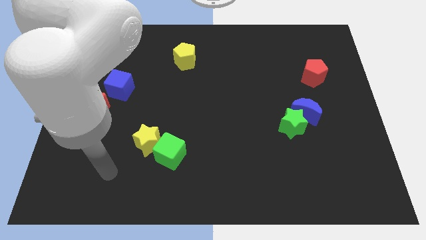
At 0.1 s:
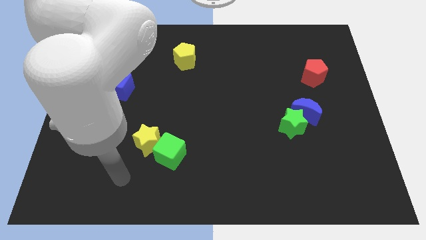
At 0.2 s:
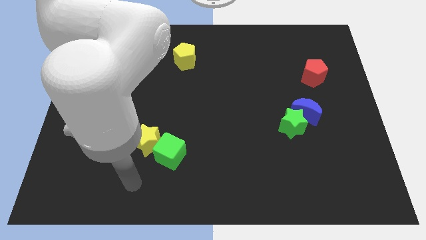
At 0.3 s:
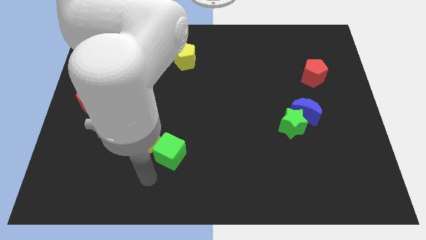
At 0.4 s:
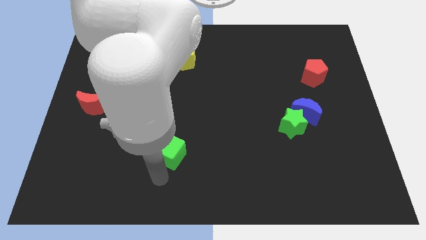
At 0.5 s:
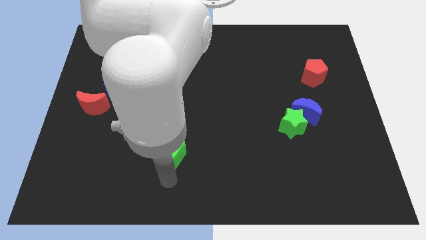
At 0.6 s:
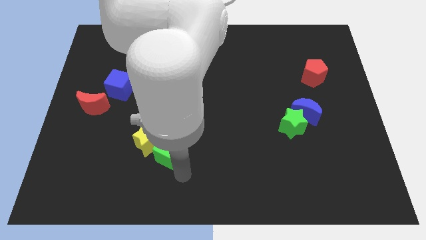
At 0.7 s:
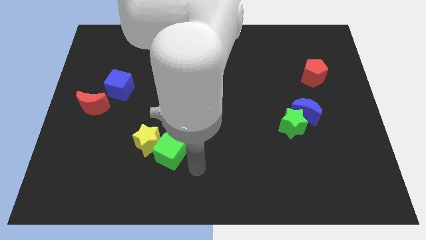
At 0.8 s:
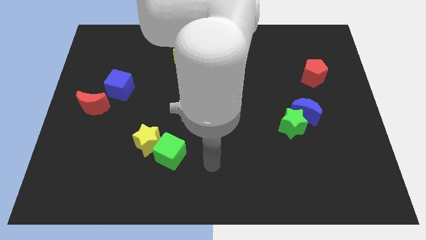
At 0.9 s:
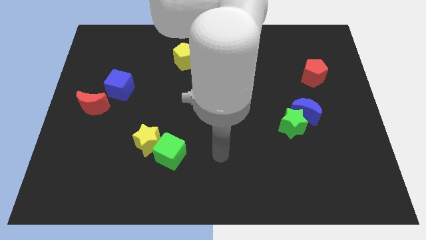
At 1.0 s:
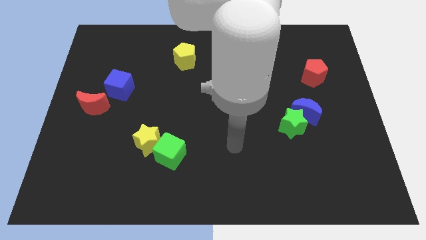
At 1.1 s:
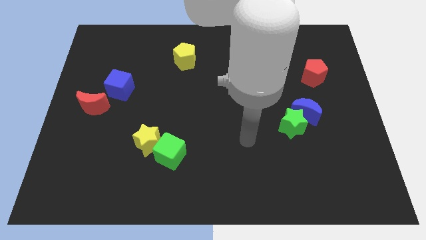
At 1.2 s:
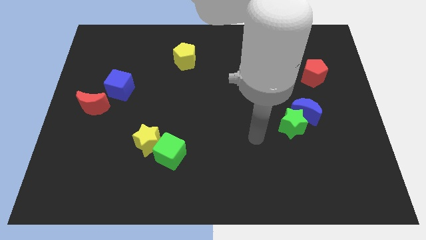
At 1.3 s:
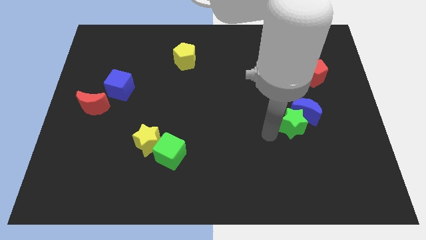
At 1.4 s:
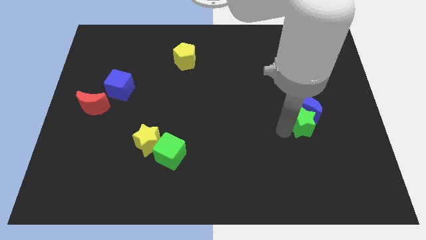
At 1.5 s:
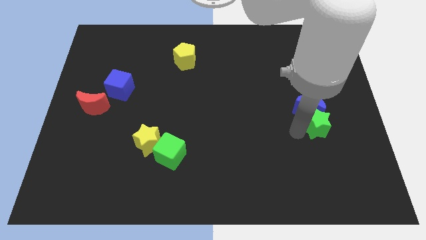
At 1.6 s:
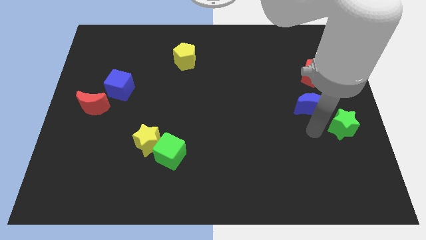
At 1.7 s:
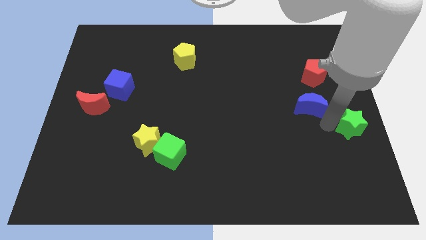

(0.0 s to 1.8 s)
pull the blue moon apart from the green star

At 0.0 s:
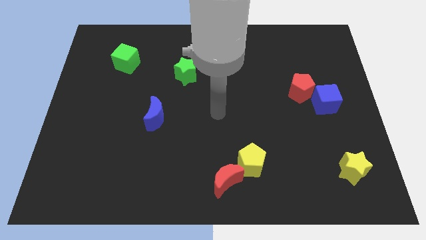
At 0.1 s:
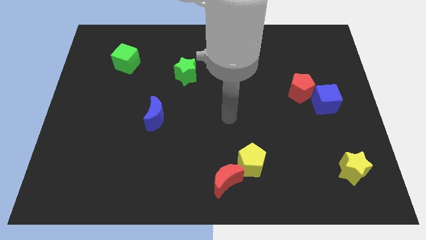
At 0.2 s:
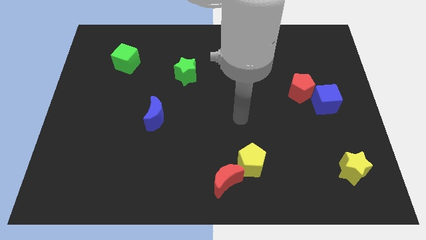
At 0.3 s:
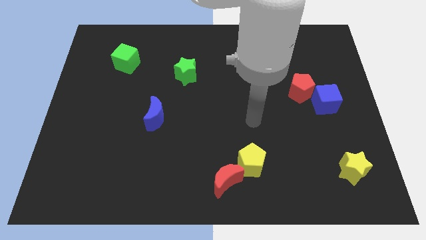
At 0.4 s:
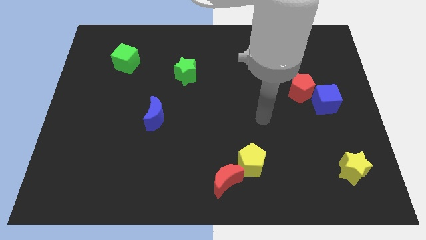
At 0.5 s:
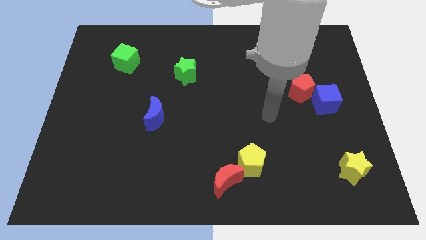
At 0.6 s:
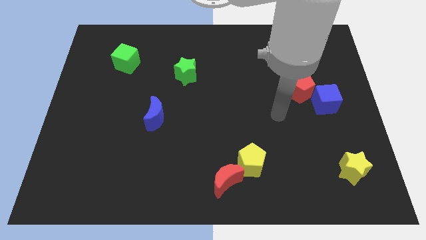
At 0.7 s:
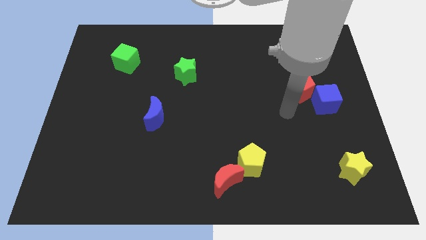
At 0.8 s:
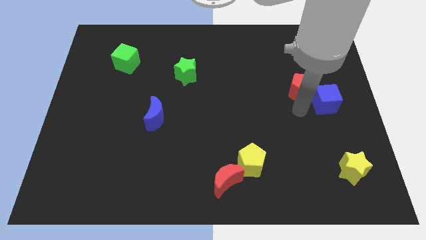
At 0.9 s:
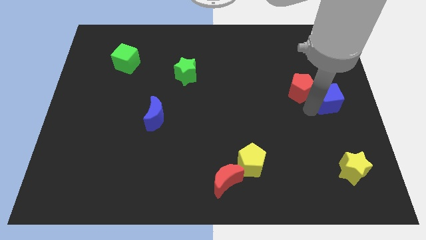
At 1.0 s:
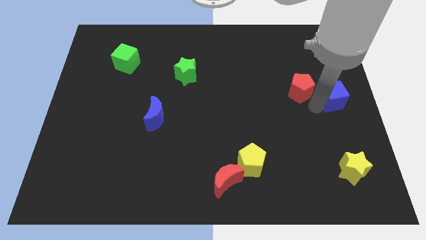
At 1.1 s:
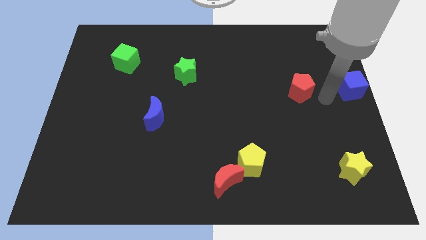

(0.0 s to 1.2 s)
pull the red pentagon apart from the blue cube

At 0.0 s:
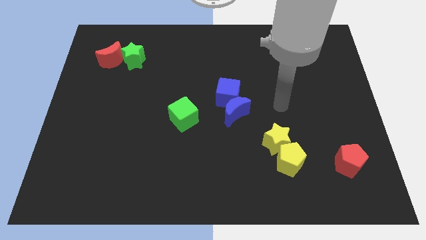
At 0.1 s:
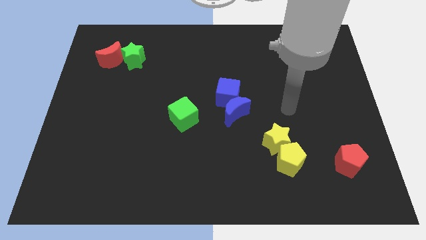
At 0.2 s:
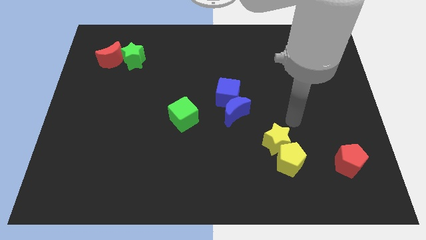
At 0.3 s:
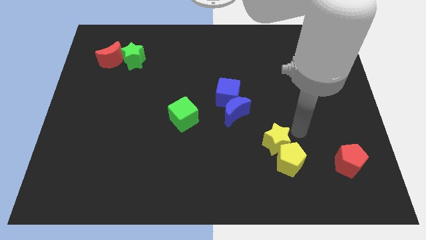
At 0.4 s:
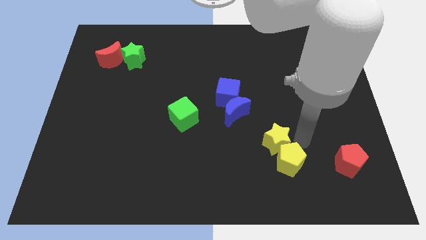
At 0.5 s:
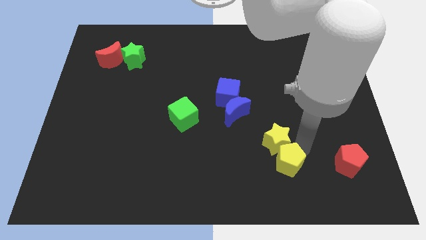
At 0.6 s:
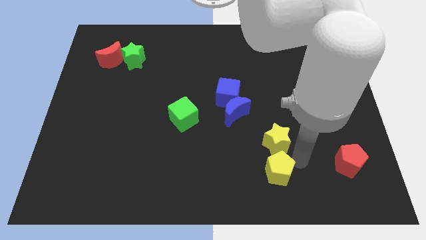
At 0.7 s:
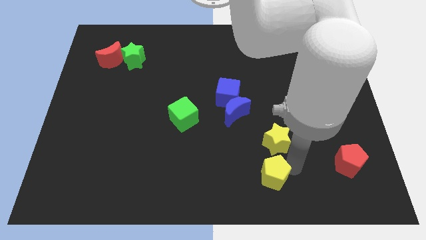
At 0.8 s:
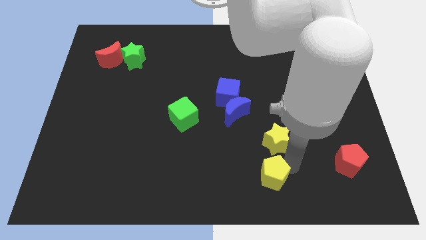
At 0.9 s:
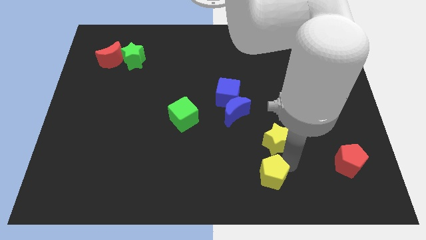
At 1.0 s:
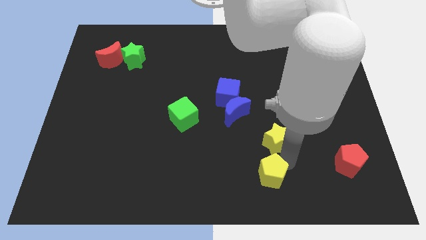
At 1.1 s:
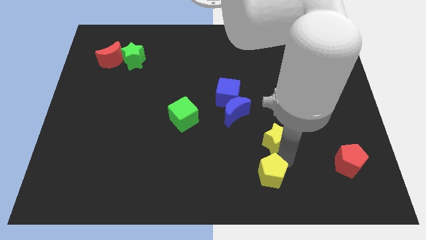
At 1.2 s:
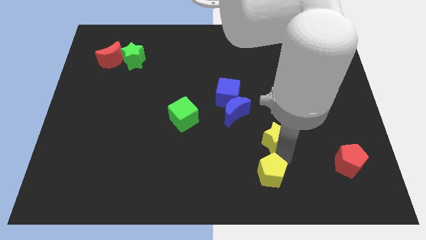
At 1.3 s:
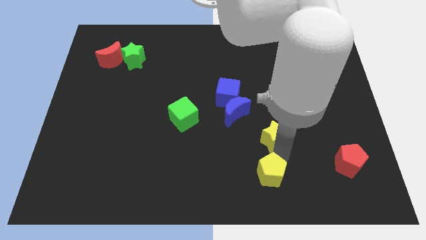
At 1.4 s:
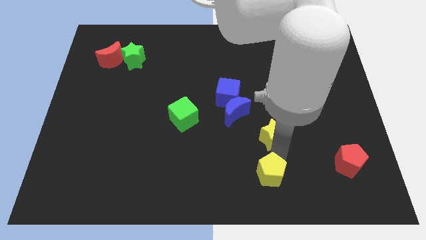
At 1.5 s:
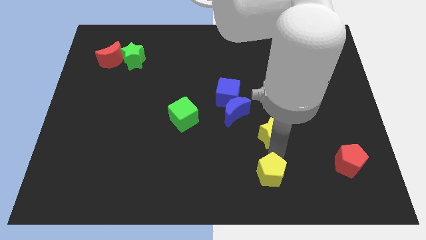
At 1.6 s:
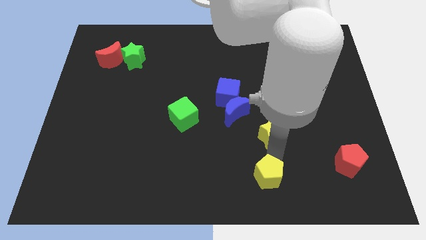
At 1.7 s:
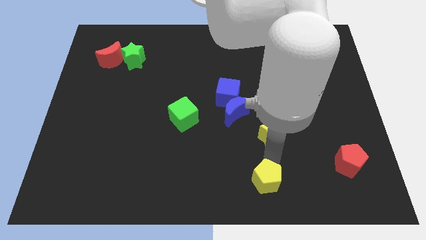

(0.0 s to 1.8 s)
pull the yellow star apart from the yellow pentagon

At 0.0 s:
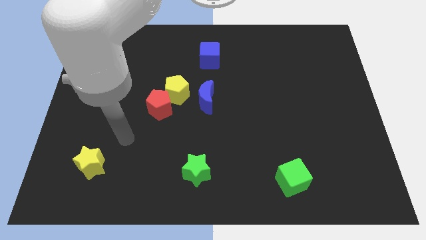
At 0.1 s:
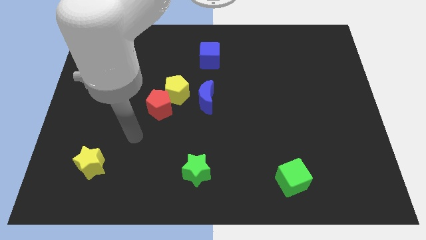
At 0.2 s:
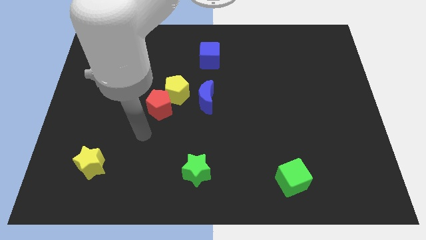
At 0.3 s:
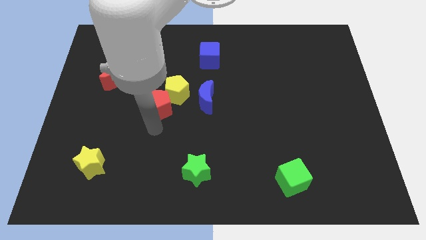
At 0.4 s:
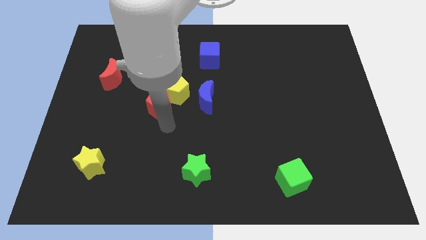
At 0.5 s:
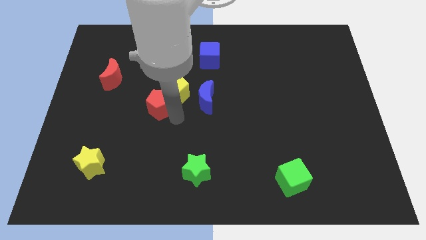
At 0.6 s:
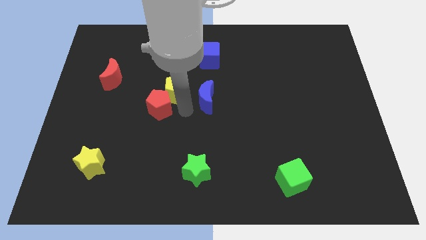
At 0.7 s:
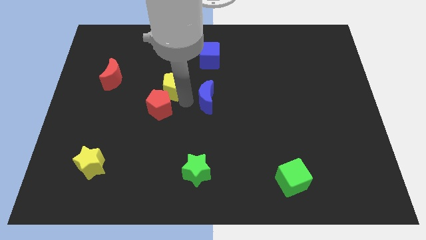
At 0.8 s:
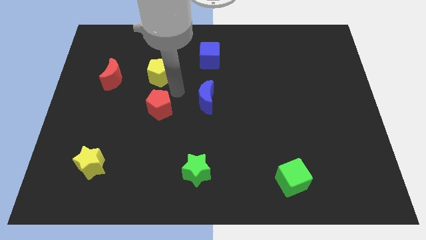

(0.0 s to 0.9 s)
separate the red pentagon from the yellow pentagon

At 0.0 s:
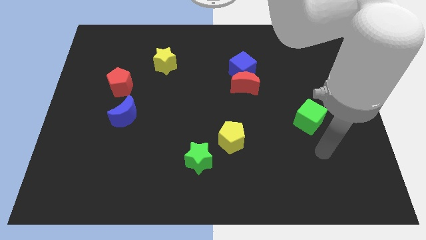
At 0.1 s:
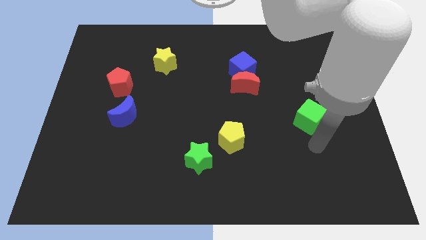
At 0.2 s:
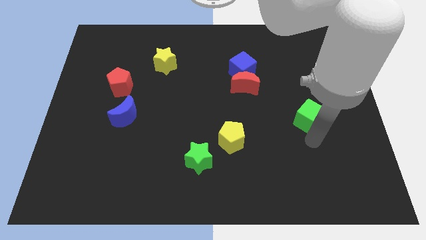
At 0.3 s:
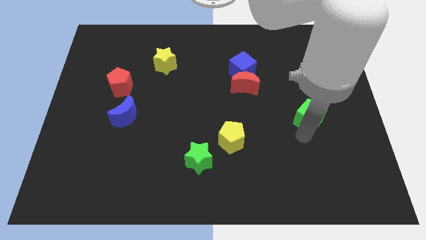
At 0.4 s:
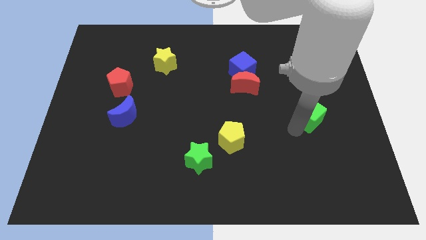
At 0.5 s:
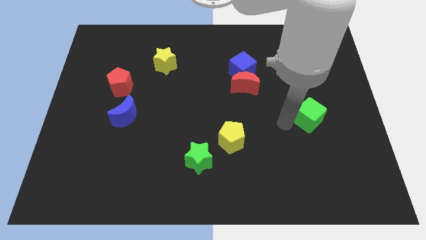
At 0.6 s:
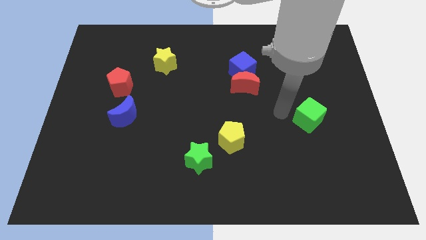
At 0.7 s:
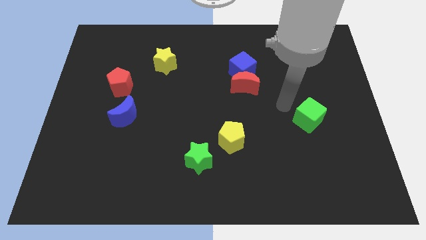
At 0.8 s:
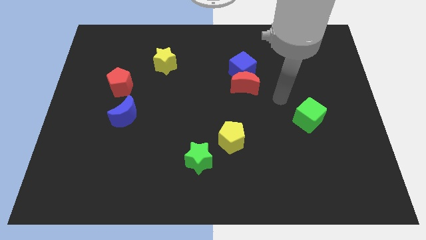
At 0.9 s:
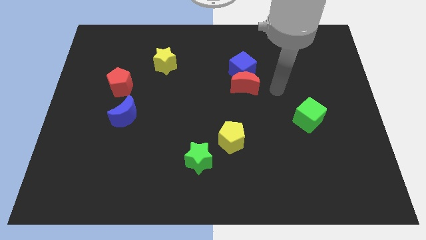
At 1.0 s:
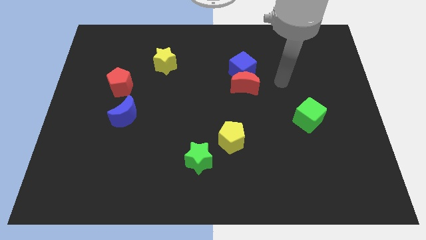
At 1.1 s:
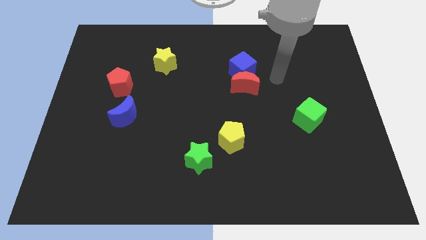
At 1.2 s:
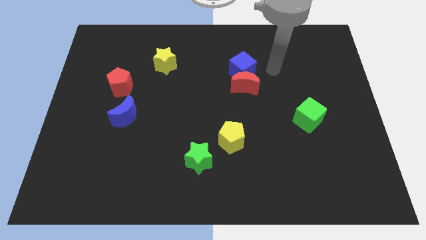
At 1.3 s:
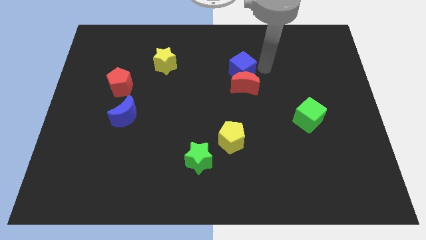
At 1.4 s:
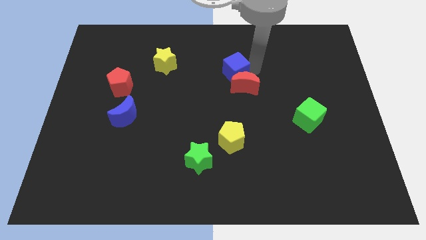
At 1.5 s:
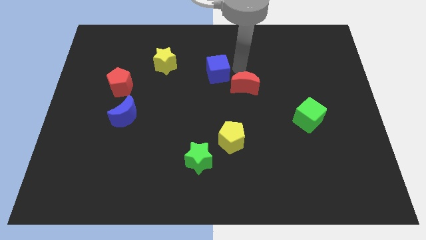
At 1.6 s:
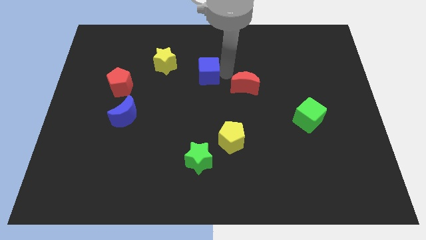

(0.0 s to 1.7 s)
move the red moon away from the blue cube

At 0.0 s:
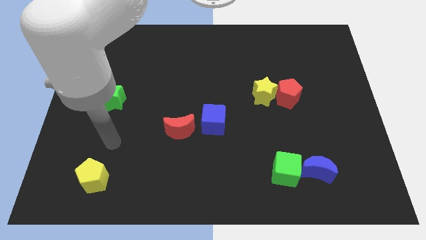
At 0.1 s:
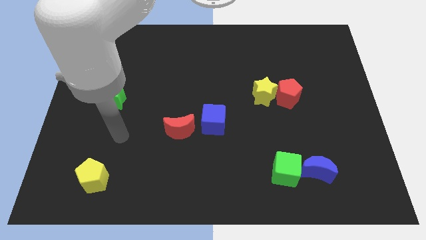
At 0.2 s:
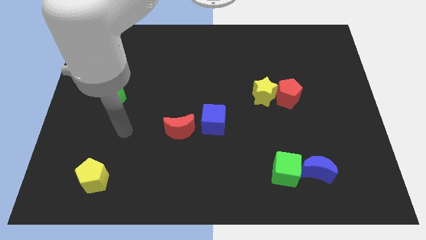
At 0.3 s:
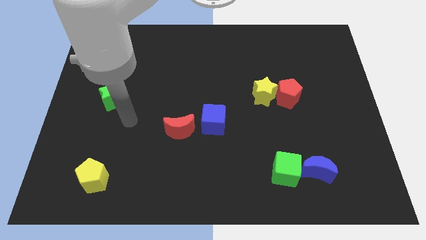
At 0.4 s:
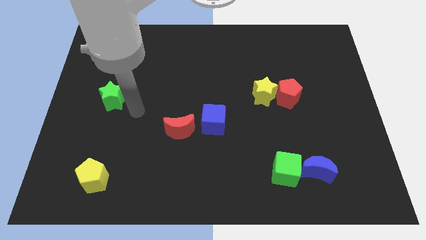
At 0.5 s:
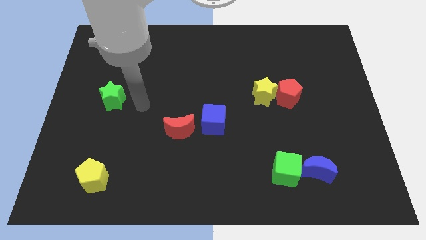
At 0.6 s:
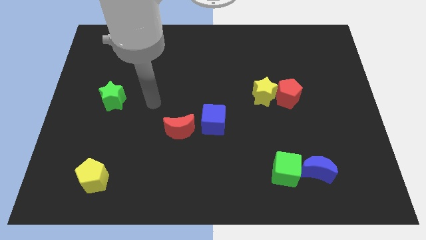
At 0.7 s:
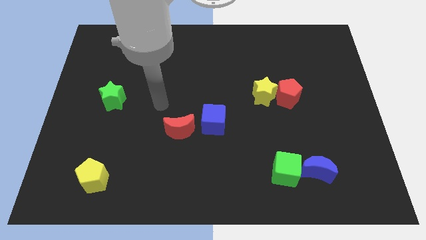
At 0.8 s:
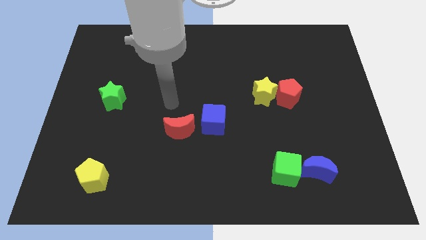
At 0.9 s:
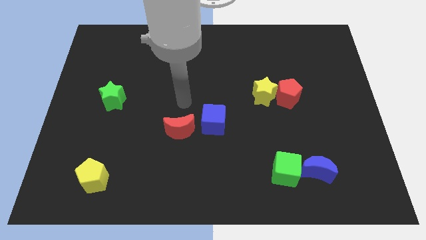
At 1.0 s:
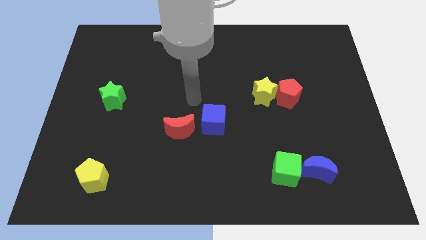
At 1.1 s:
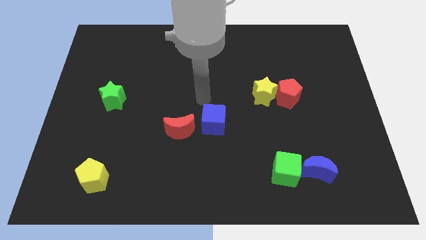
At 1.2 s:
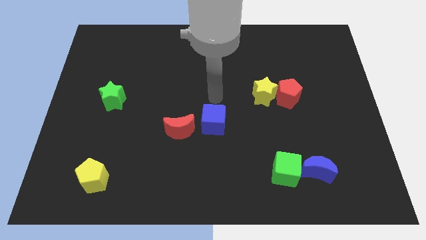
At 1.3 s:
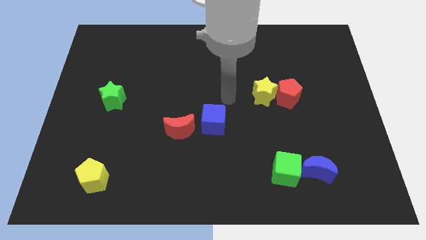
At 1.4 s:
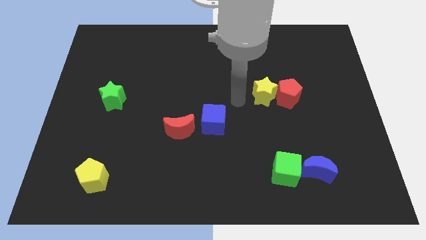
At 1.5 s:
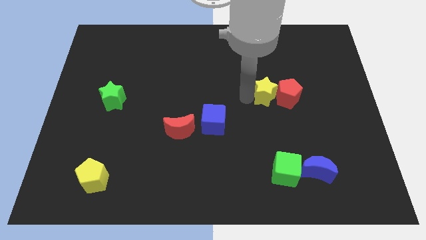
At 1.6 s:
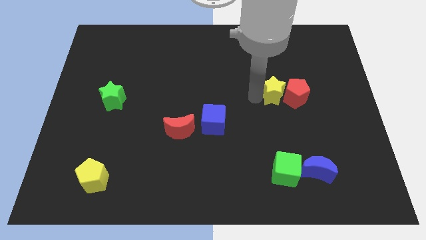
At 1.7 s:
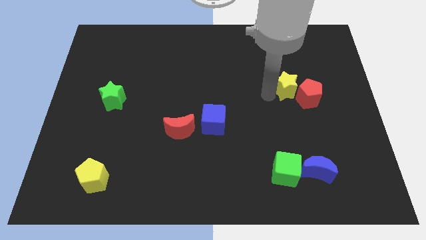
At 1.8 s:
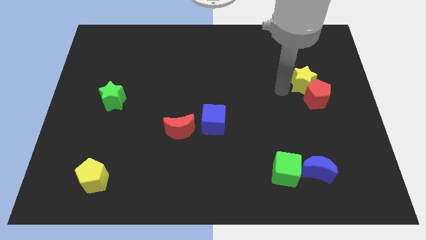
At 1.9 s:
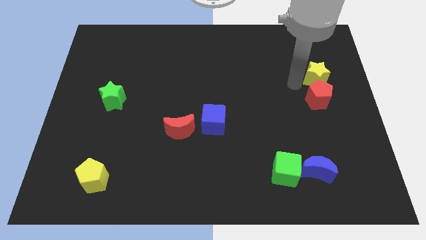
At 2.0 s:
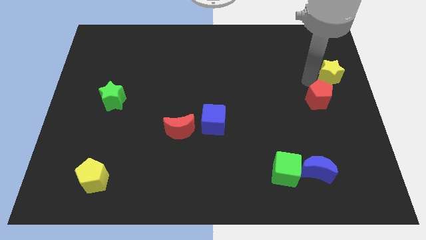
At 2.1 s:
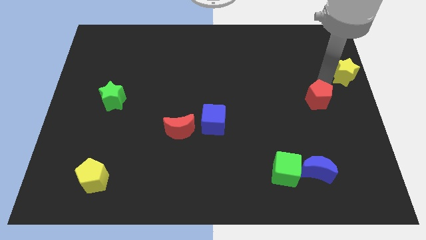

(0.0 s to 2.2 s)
pull the red pentagon apart from the yellow star
